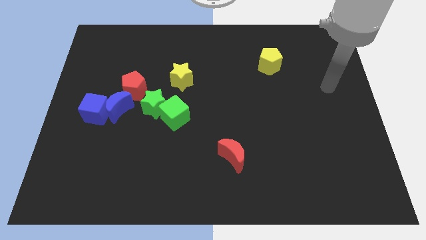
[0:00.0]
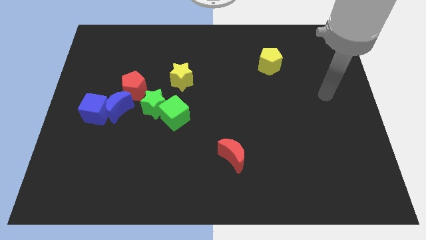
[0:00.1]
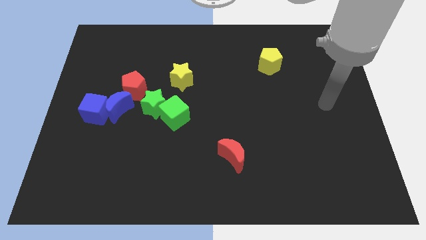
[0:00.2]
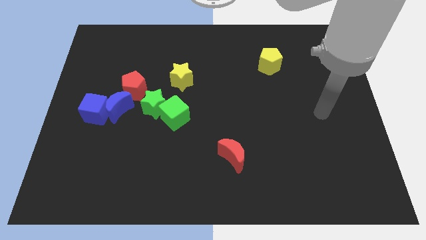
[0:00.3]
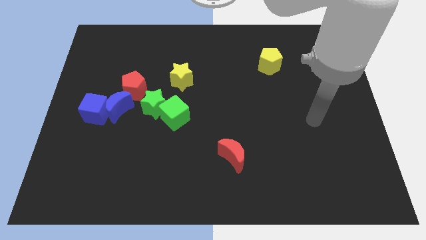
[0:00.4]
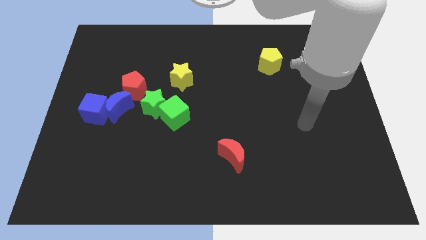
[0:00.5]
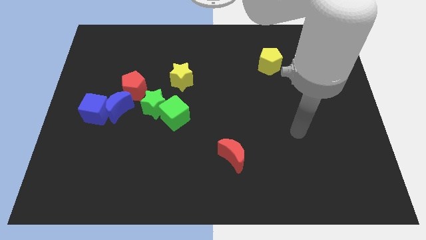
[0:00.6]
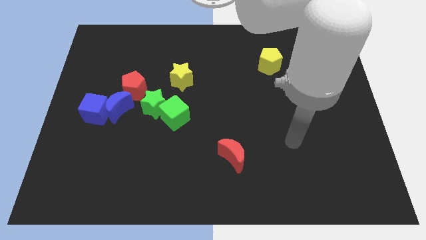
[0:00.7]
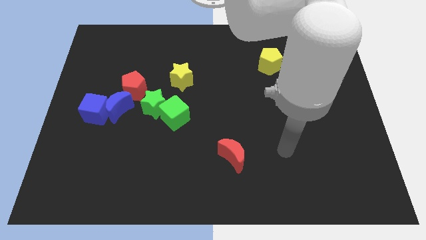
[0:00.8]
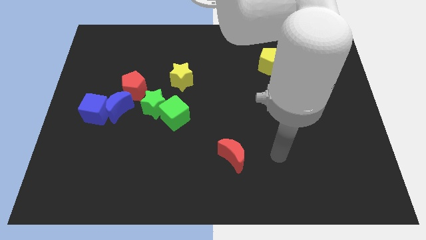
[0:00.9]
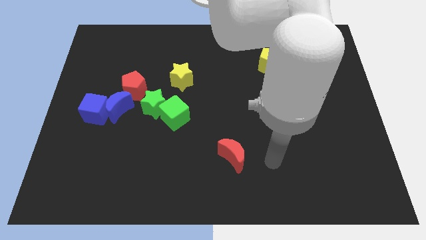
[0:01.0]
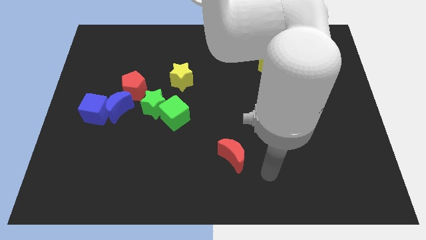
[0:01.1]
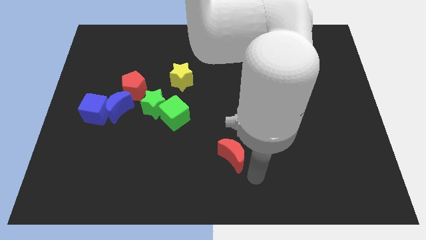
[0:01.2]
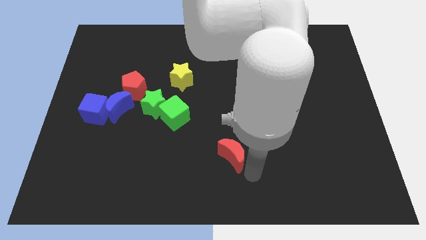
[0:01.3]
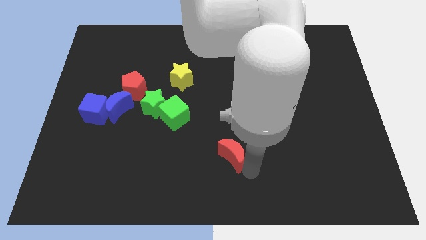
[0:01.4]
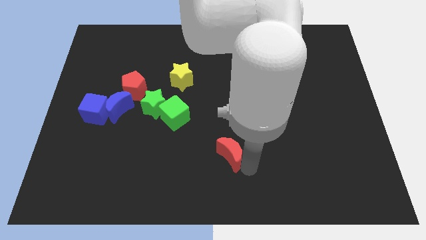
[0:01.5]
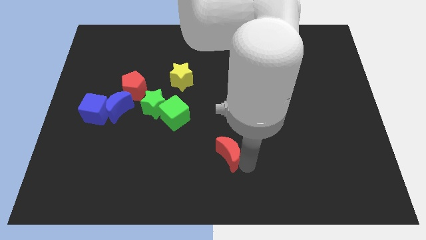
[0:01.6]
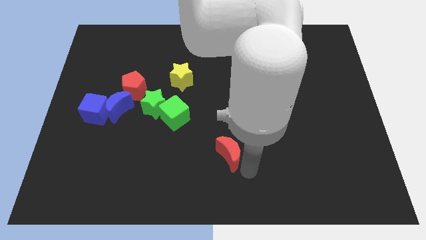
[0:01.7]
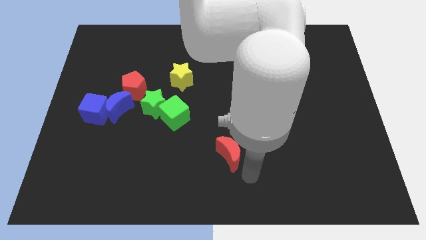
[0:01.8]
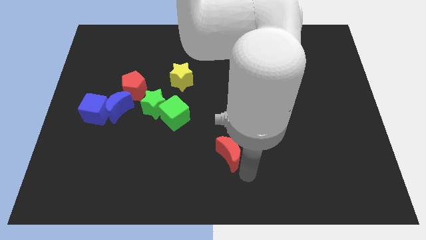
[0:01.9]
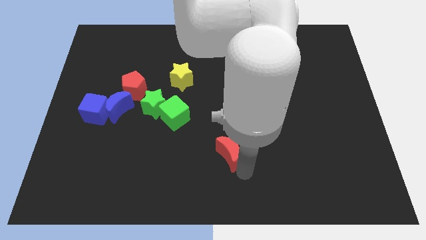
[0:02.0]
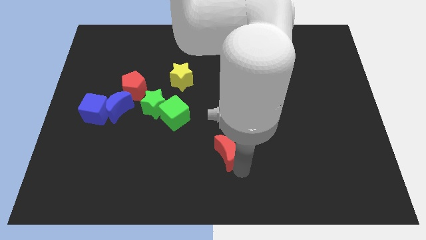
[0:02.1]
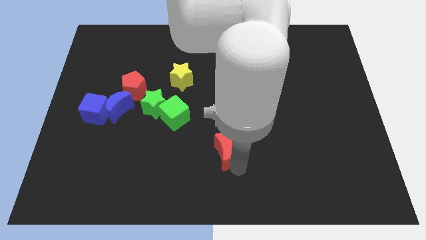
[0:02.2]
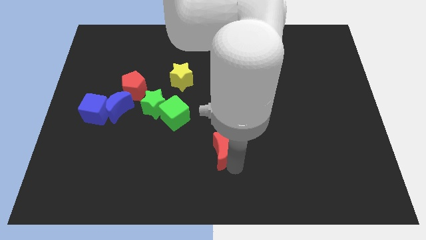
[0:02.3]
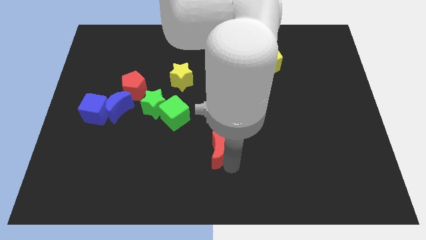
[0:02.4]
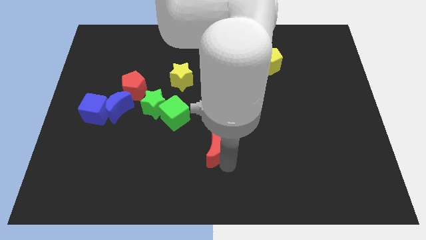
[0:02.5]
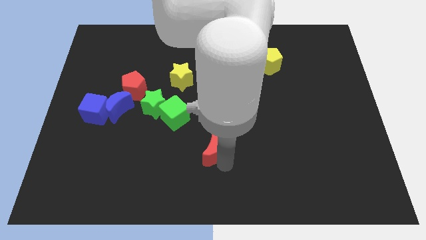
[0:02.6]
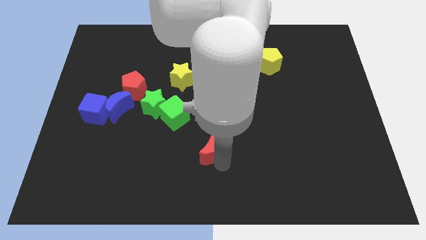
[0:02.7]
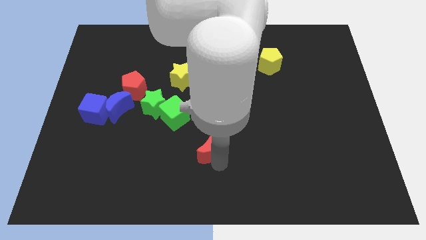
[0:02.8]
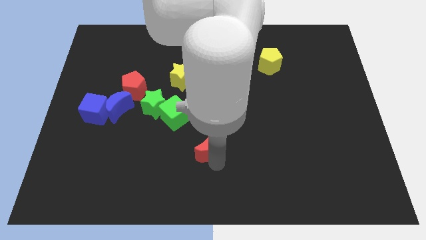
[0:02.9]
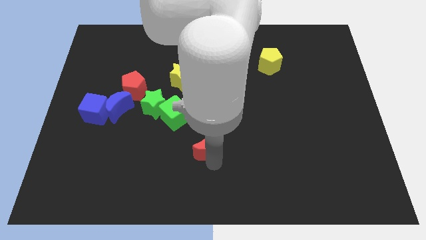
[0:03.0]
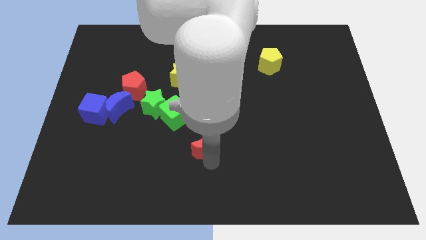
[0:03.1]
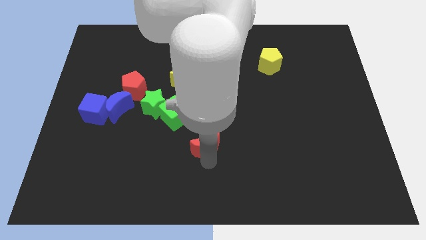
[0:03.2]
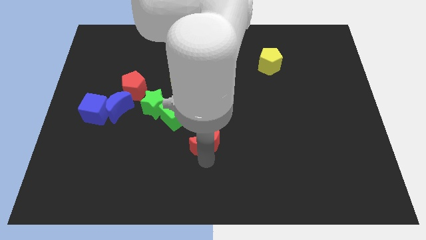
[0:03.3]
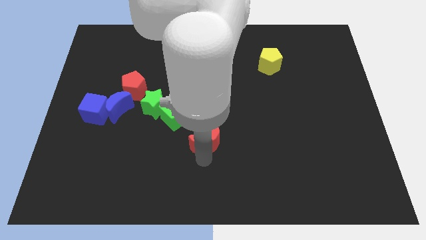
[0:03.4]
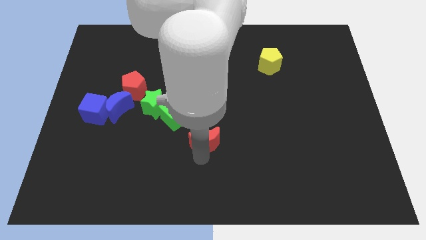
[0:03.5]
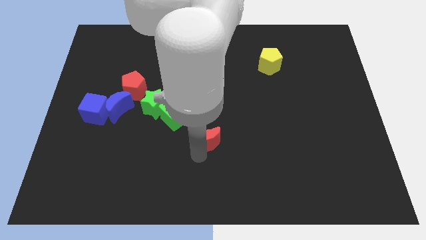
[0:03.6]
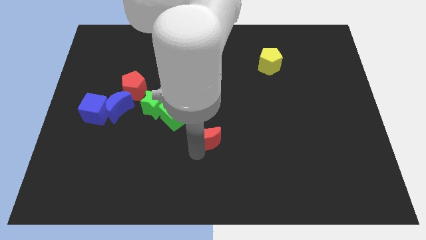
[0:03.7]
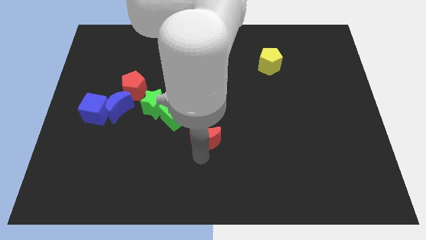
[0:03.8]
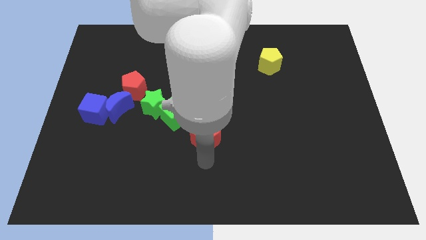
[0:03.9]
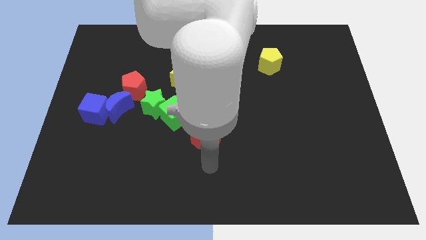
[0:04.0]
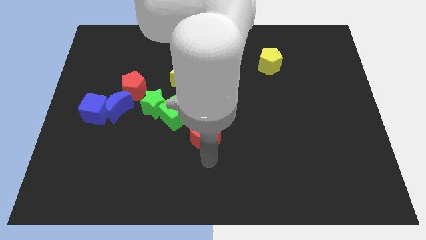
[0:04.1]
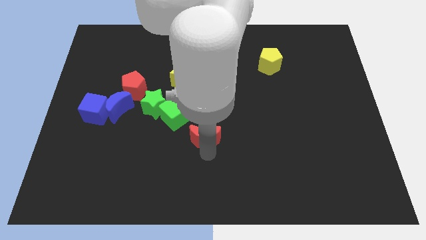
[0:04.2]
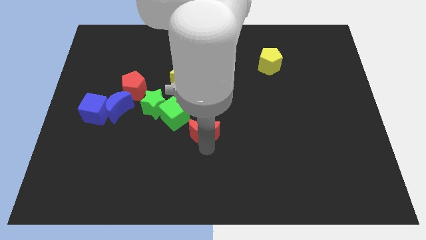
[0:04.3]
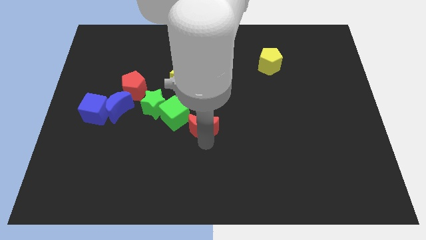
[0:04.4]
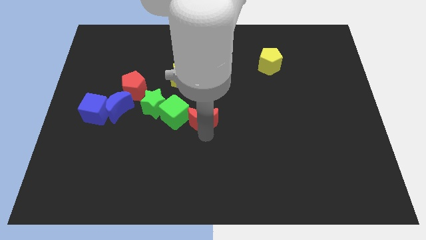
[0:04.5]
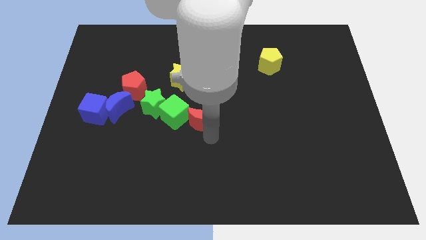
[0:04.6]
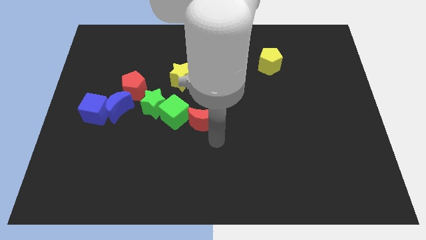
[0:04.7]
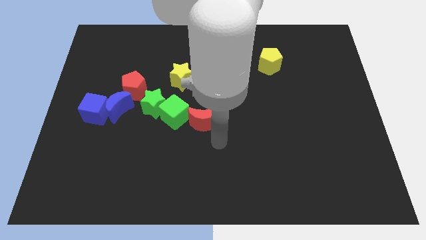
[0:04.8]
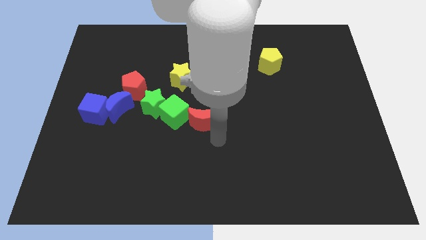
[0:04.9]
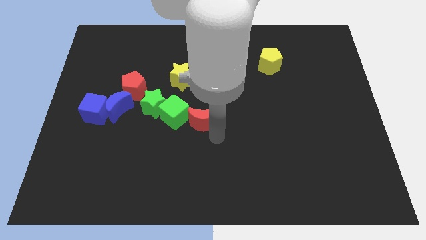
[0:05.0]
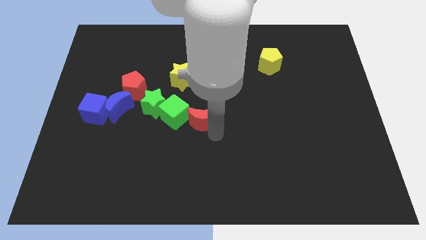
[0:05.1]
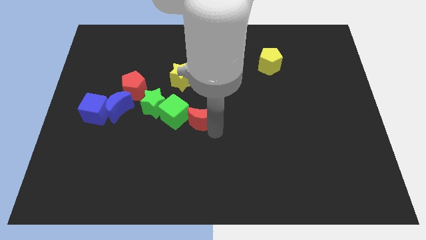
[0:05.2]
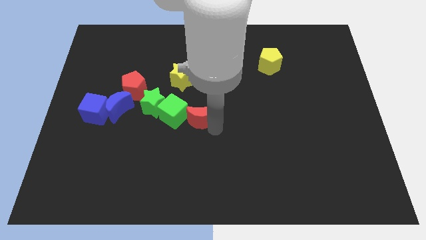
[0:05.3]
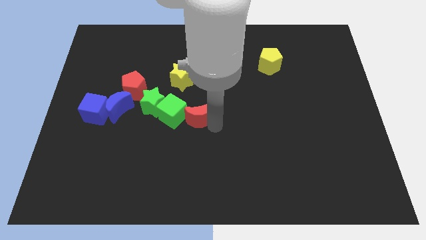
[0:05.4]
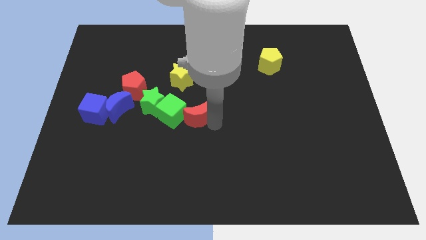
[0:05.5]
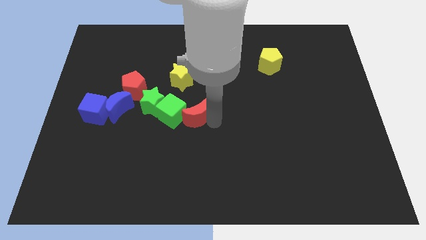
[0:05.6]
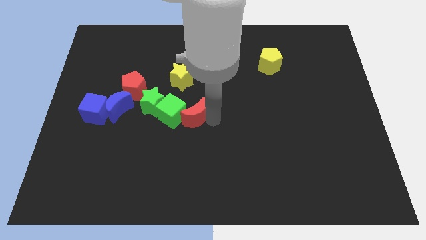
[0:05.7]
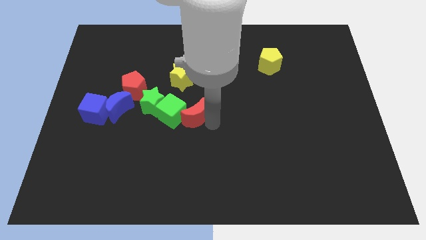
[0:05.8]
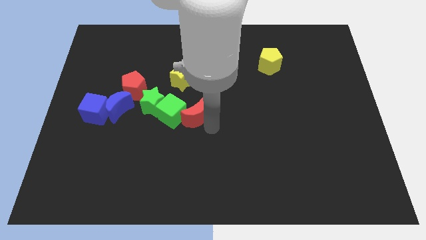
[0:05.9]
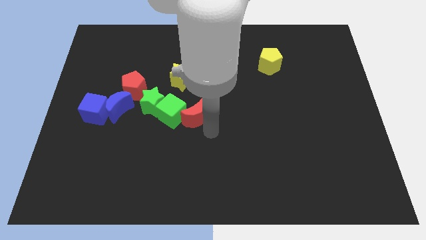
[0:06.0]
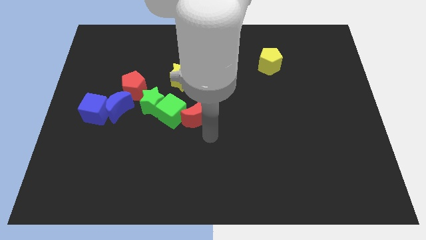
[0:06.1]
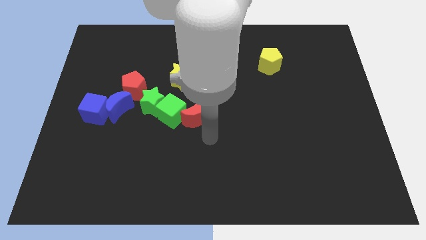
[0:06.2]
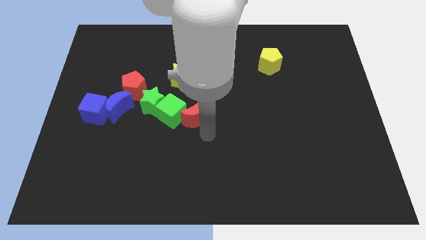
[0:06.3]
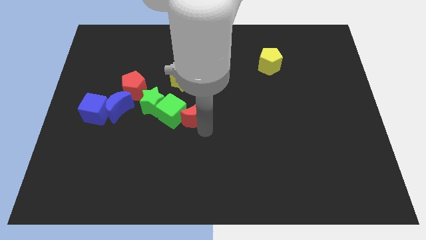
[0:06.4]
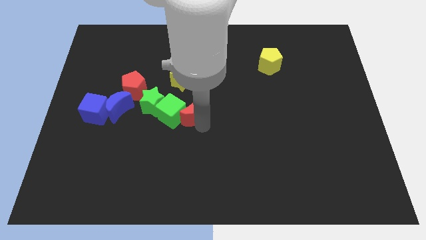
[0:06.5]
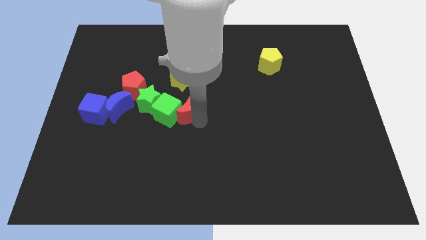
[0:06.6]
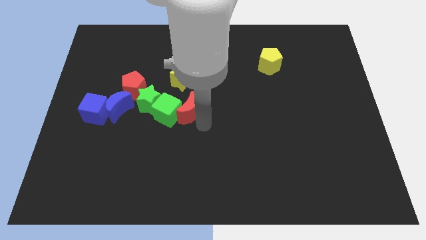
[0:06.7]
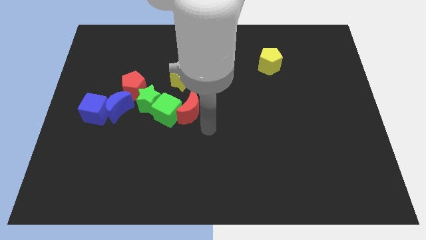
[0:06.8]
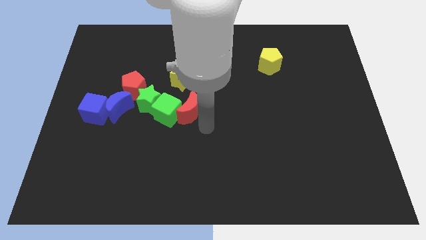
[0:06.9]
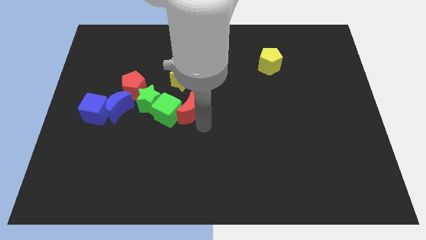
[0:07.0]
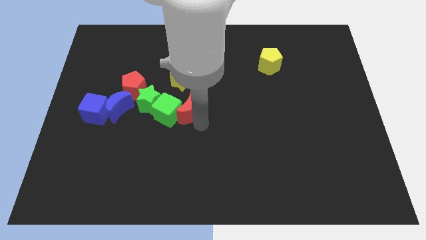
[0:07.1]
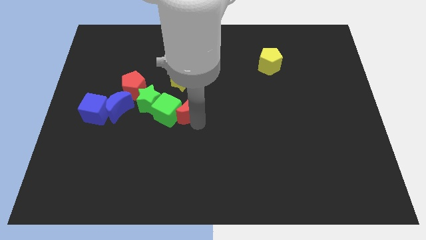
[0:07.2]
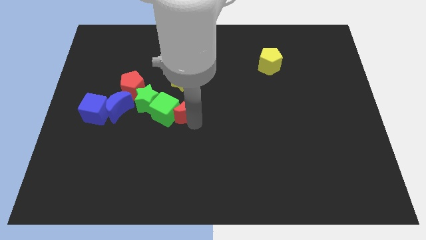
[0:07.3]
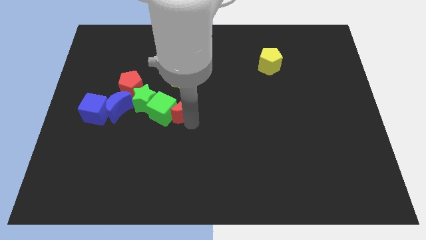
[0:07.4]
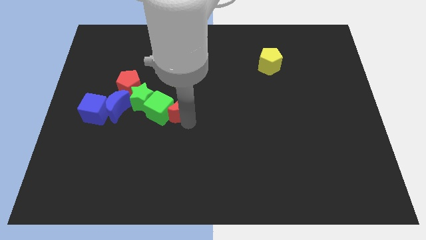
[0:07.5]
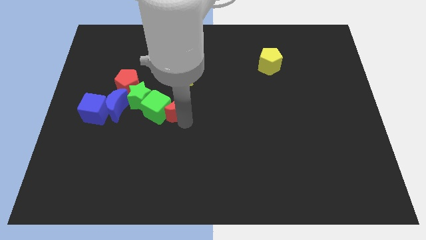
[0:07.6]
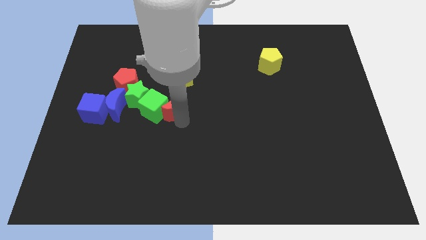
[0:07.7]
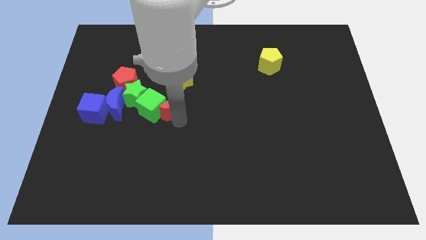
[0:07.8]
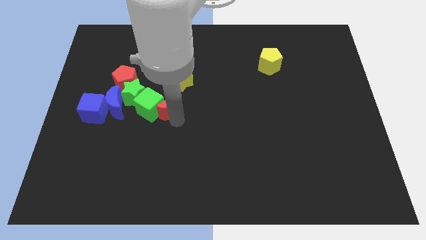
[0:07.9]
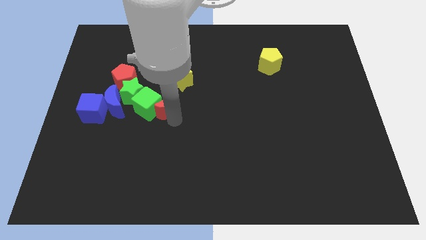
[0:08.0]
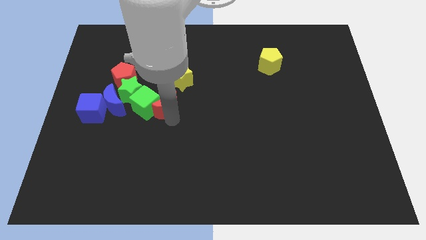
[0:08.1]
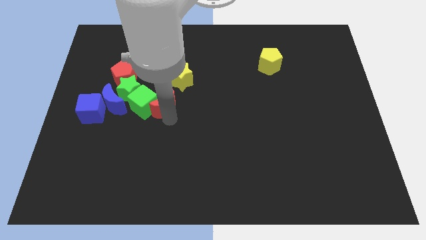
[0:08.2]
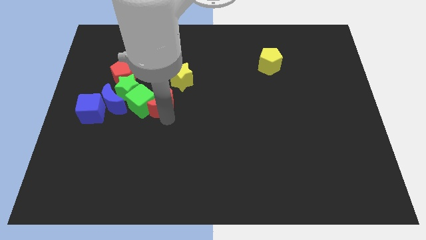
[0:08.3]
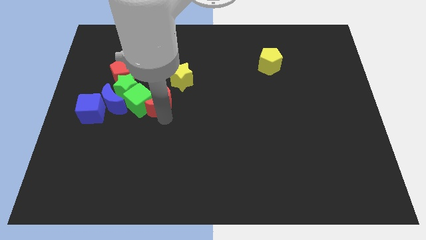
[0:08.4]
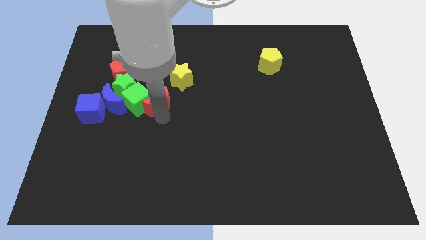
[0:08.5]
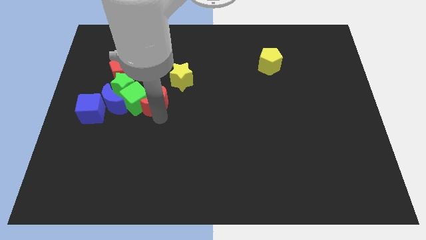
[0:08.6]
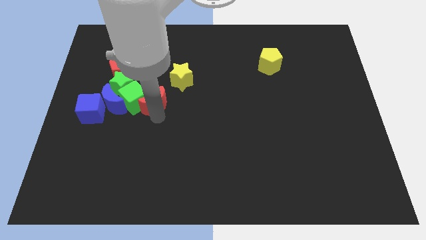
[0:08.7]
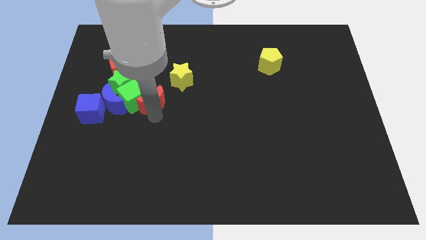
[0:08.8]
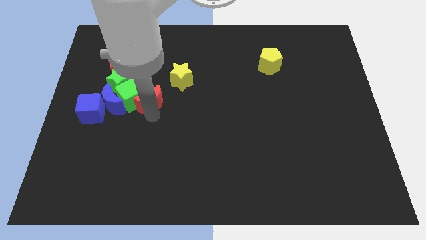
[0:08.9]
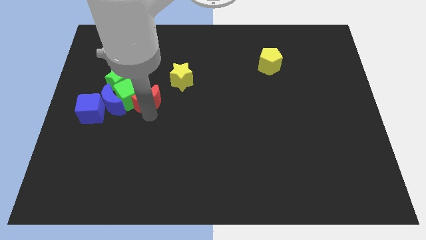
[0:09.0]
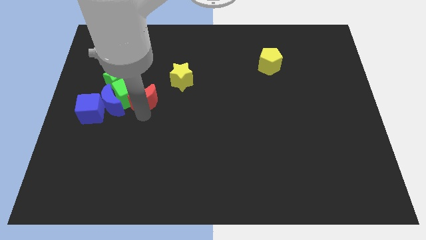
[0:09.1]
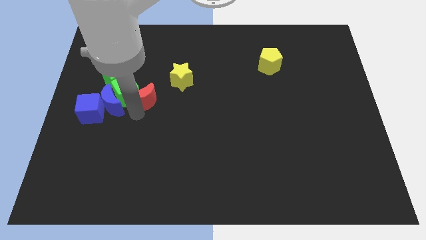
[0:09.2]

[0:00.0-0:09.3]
push the red moon to the top right of the blue moon
